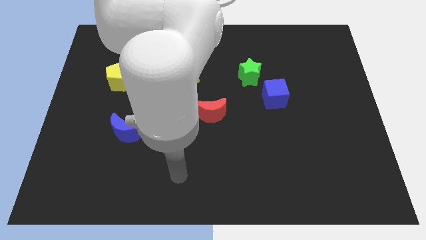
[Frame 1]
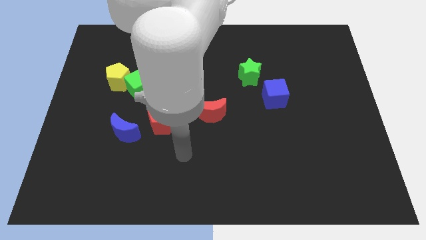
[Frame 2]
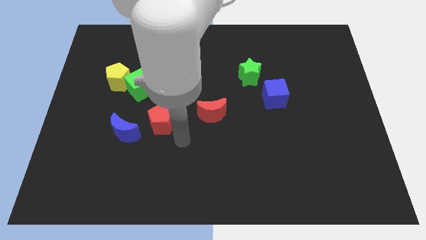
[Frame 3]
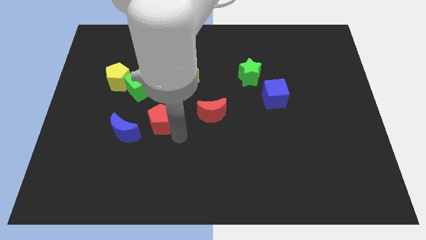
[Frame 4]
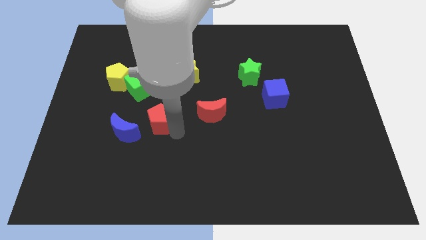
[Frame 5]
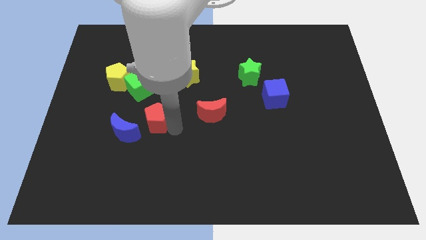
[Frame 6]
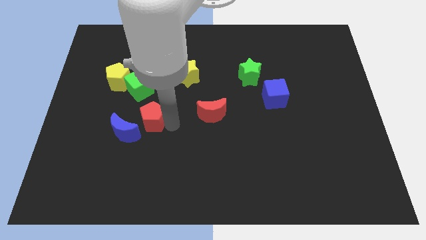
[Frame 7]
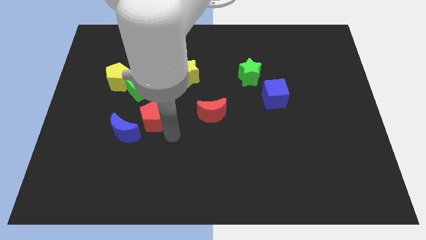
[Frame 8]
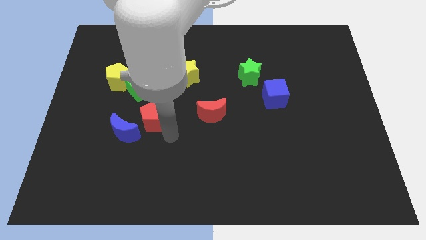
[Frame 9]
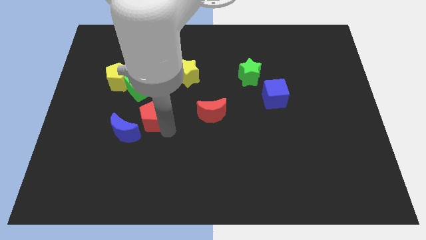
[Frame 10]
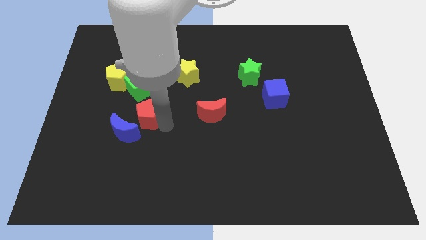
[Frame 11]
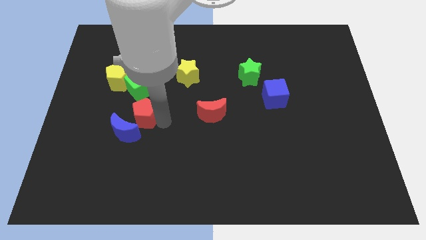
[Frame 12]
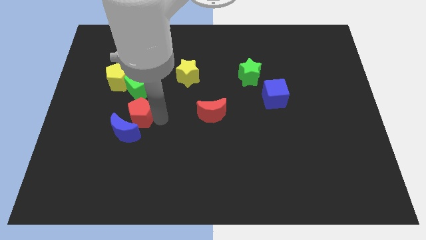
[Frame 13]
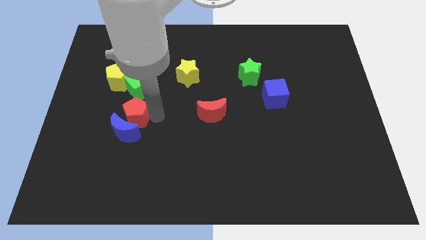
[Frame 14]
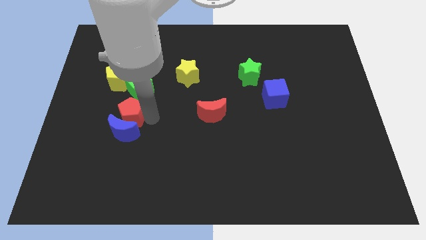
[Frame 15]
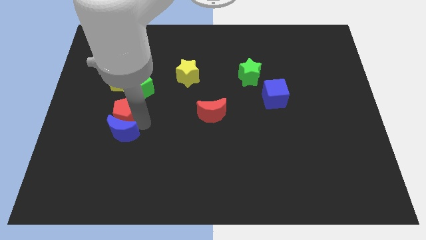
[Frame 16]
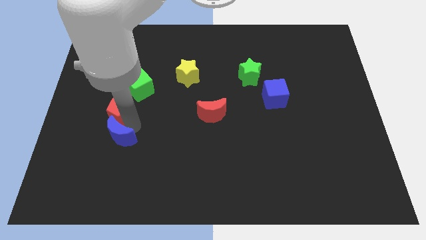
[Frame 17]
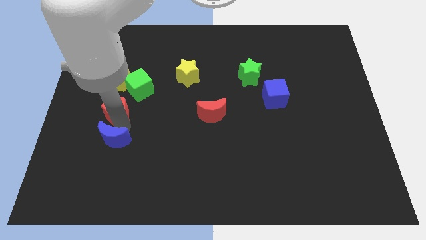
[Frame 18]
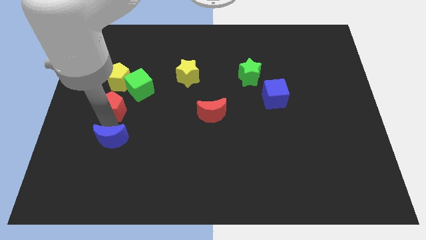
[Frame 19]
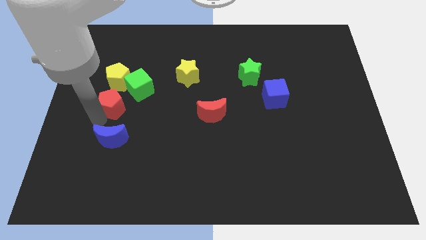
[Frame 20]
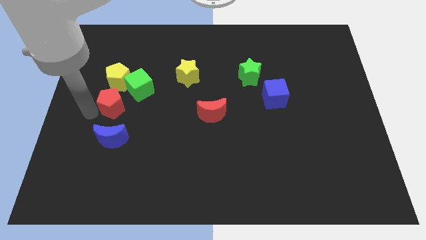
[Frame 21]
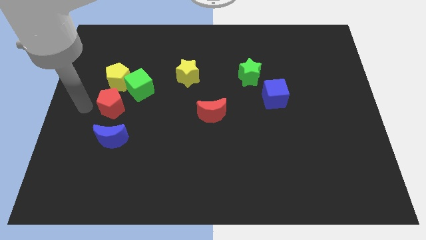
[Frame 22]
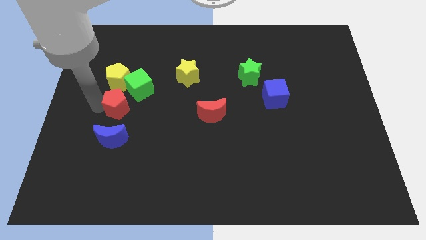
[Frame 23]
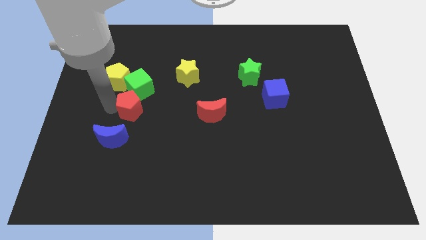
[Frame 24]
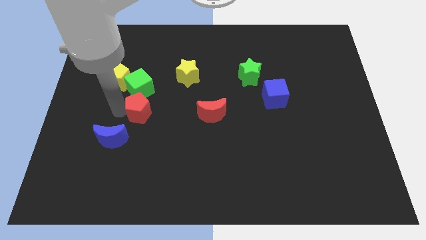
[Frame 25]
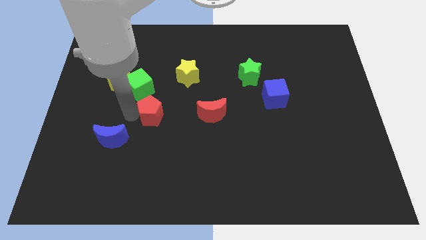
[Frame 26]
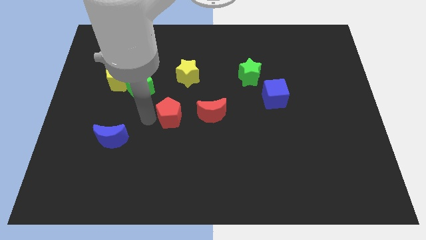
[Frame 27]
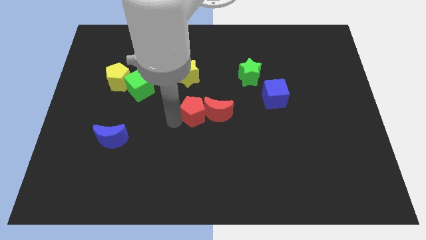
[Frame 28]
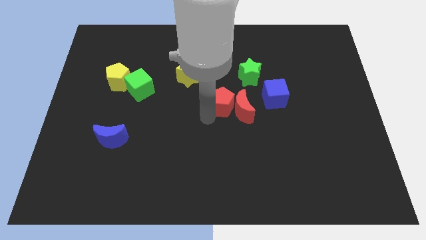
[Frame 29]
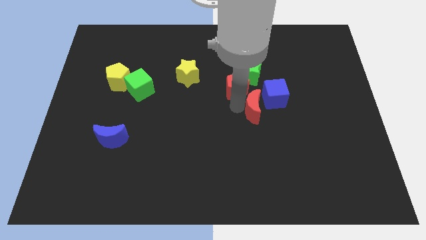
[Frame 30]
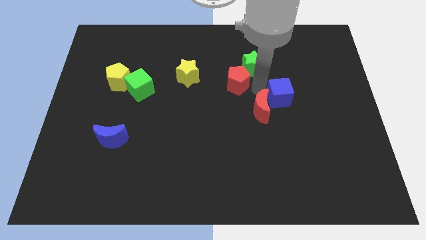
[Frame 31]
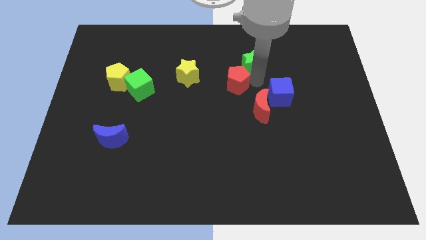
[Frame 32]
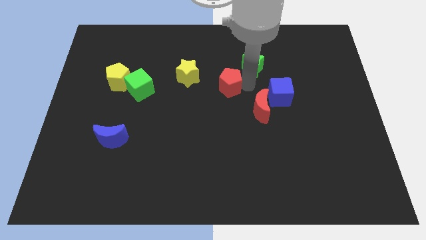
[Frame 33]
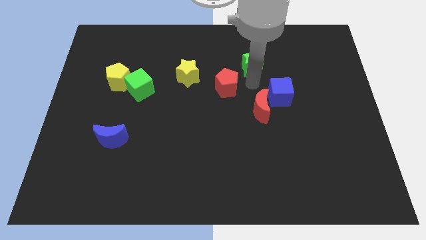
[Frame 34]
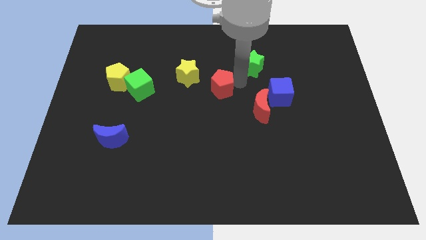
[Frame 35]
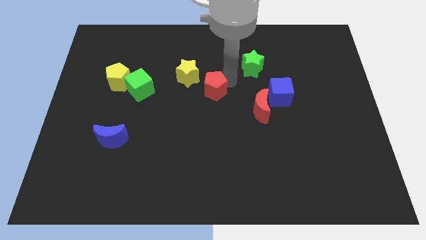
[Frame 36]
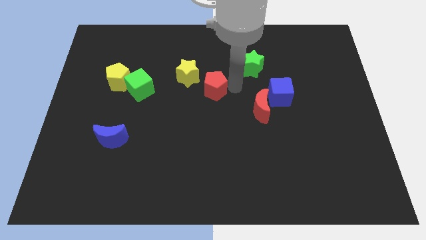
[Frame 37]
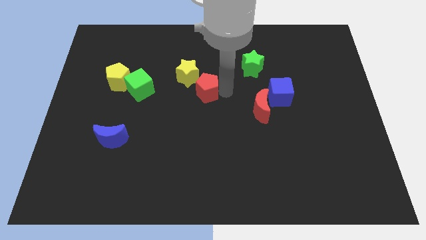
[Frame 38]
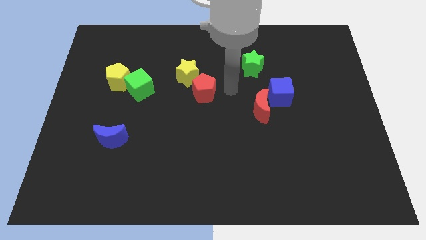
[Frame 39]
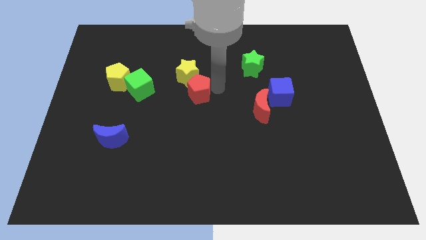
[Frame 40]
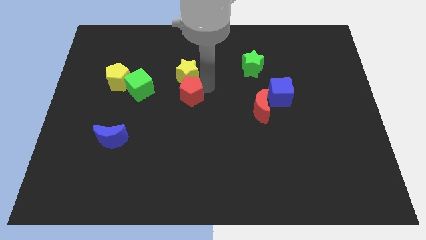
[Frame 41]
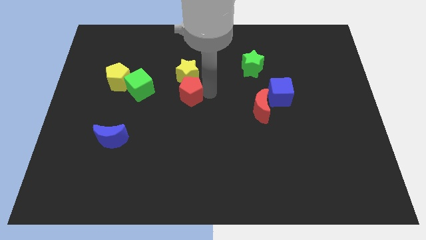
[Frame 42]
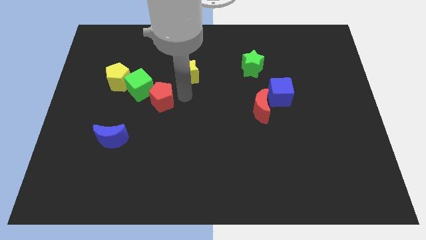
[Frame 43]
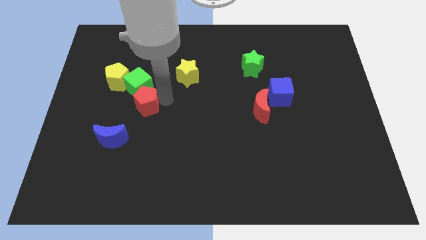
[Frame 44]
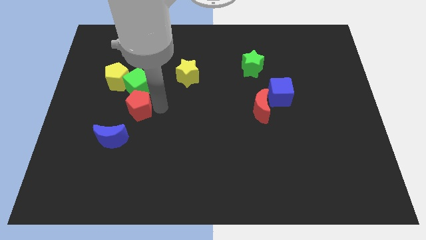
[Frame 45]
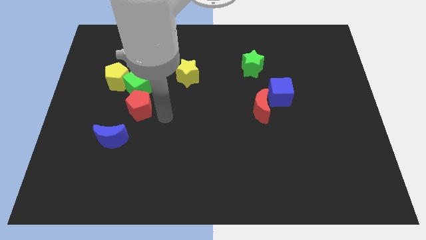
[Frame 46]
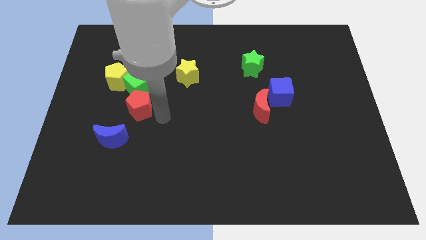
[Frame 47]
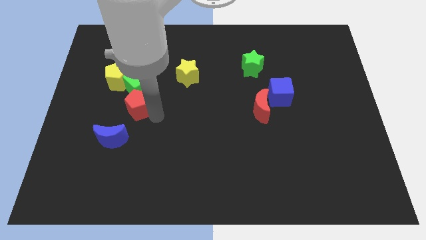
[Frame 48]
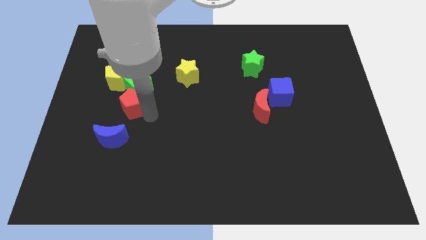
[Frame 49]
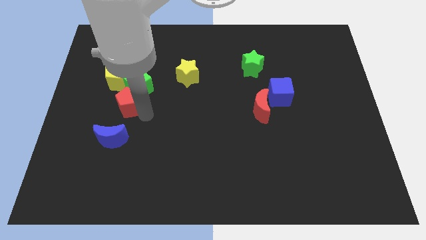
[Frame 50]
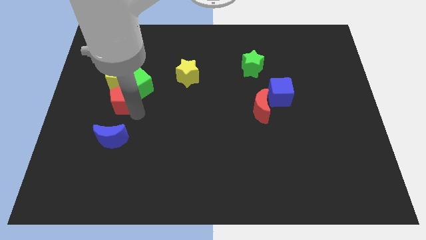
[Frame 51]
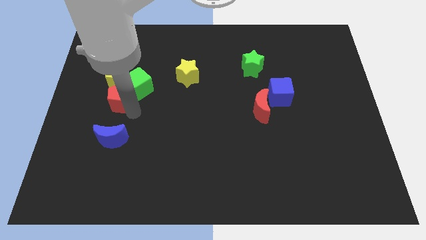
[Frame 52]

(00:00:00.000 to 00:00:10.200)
slide the red pentagon to the left of the green cube

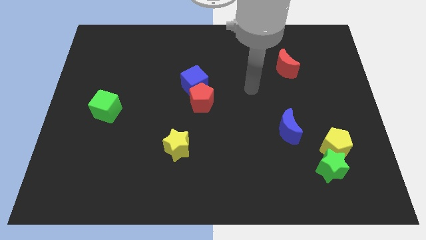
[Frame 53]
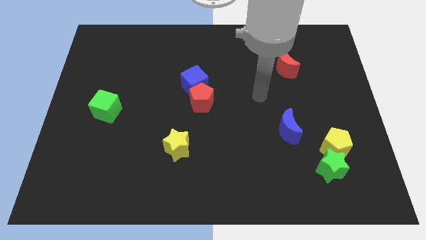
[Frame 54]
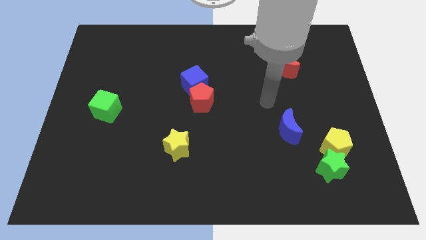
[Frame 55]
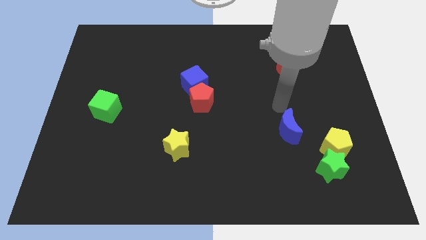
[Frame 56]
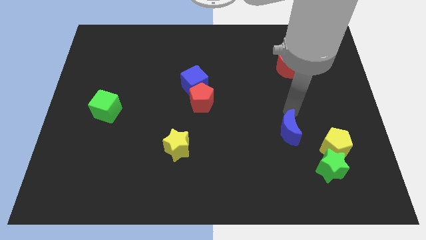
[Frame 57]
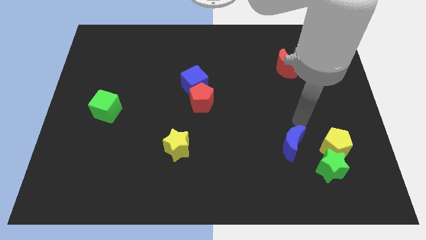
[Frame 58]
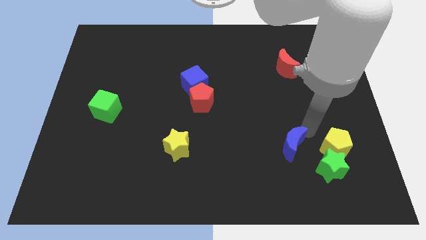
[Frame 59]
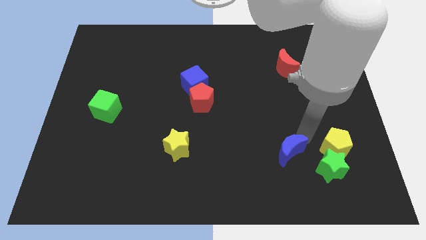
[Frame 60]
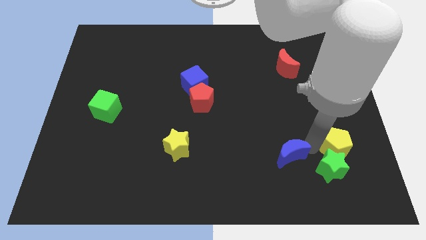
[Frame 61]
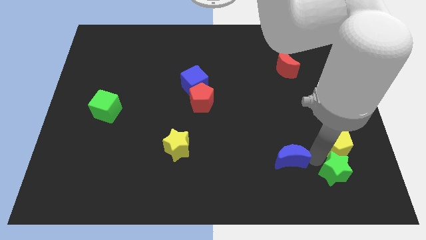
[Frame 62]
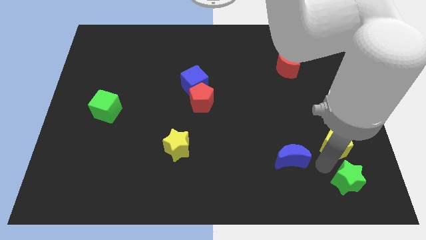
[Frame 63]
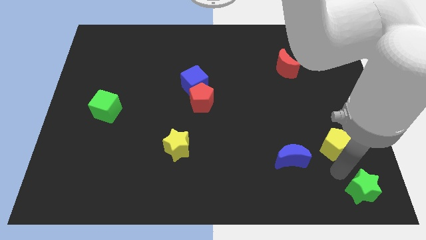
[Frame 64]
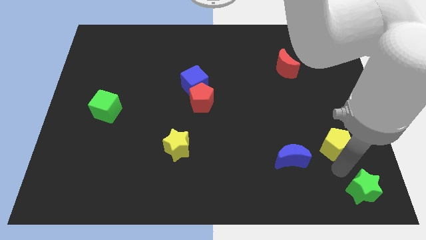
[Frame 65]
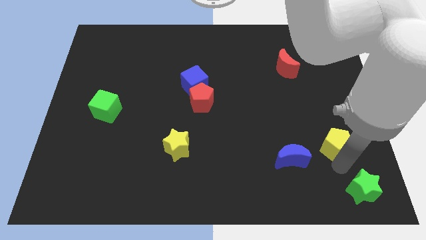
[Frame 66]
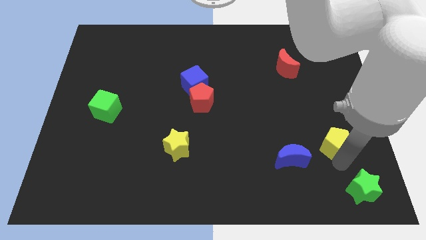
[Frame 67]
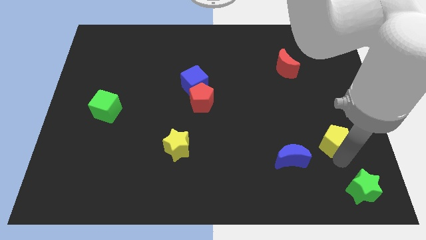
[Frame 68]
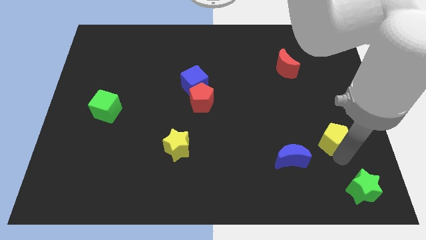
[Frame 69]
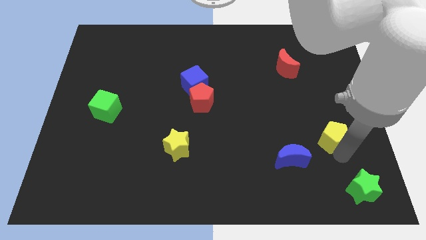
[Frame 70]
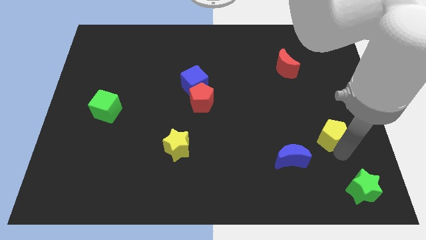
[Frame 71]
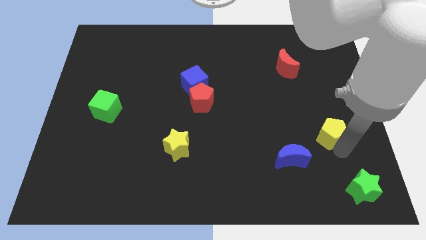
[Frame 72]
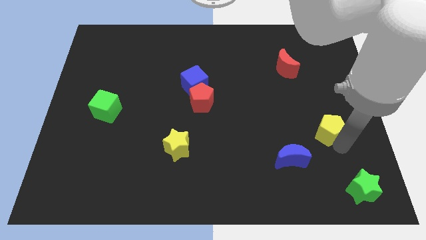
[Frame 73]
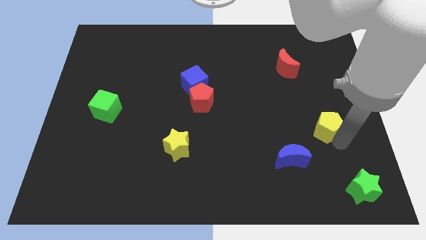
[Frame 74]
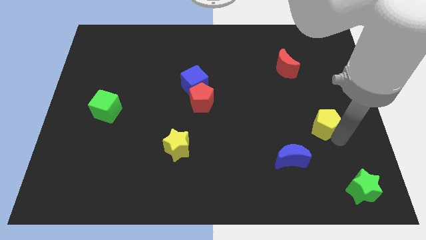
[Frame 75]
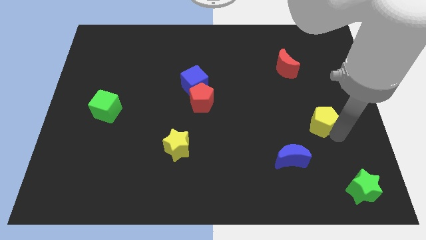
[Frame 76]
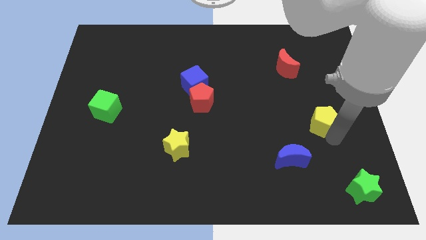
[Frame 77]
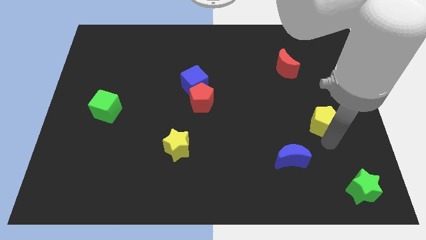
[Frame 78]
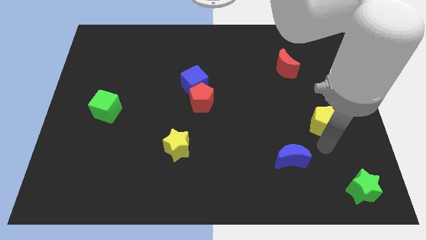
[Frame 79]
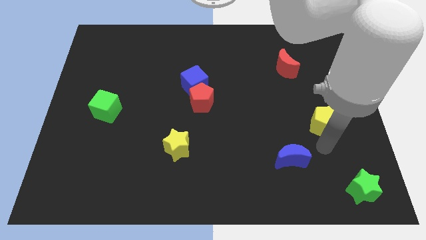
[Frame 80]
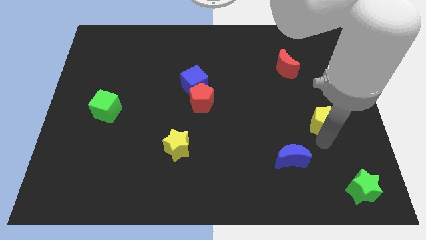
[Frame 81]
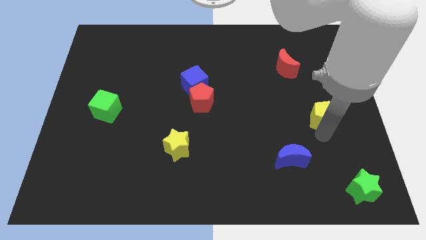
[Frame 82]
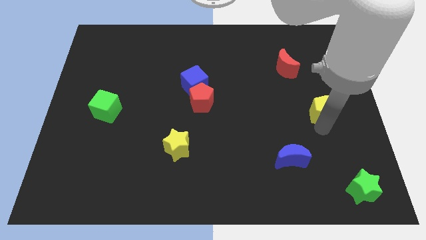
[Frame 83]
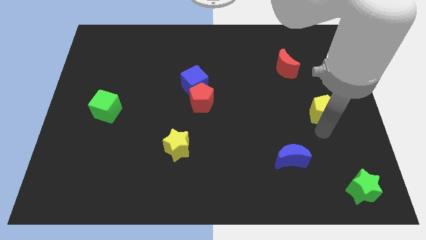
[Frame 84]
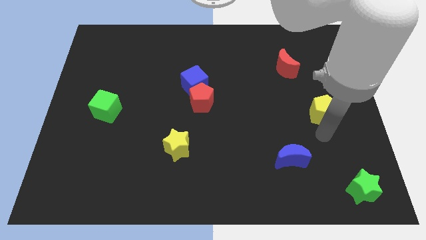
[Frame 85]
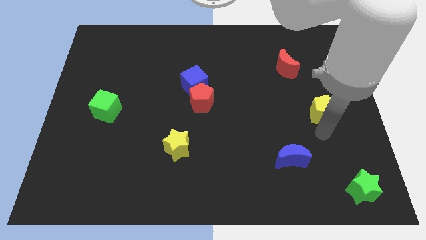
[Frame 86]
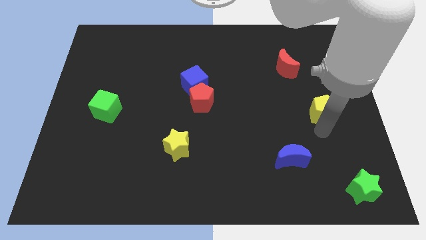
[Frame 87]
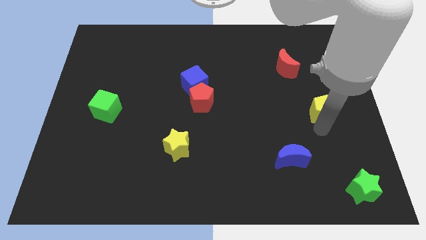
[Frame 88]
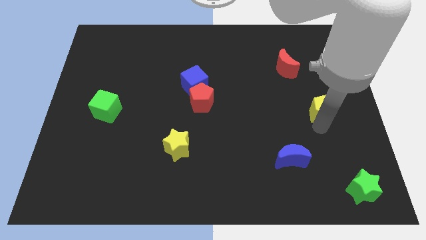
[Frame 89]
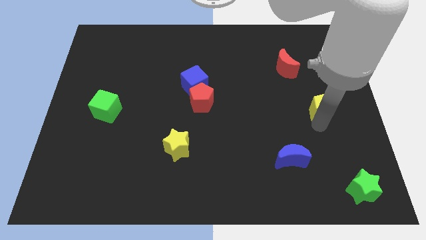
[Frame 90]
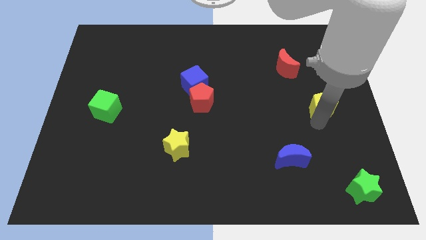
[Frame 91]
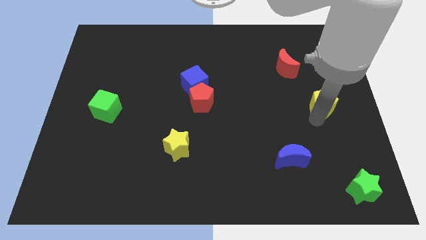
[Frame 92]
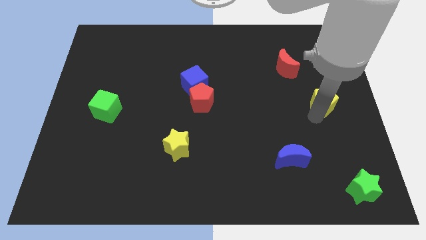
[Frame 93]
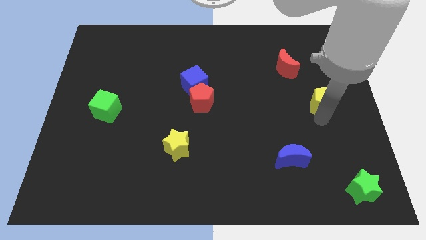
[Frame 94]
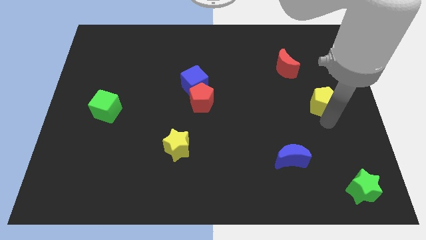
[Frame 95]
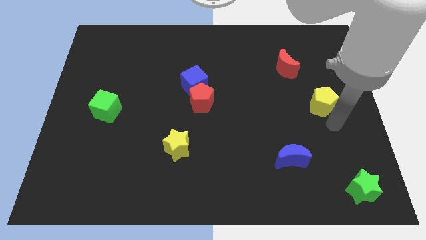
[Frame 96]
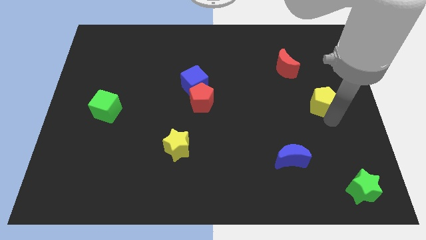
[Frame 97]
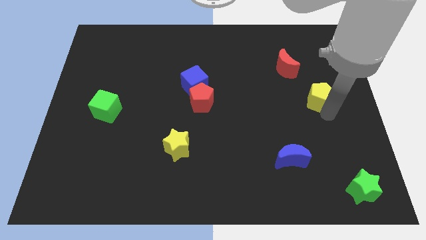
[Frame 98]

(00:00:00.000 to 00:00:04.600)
slide the yellow pentagon to the bottom right of the red moon
